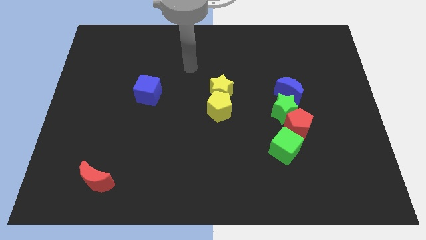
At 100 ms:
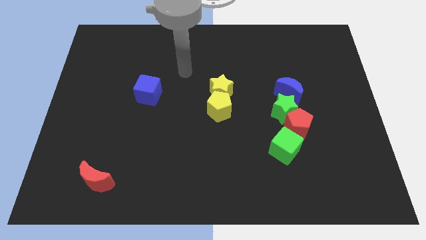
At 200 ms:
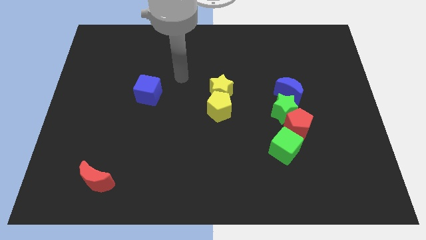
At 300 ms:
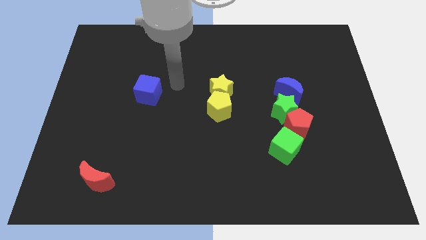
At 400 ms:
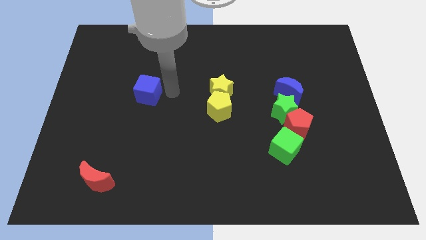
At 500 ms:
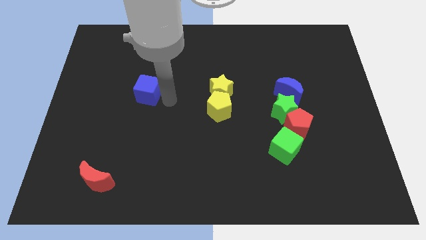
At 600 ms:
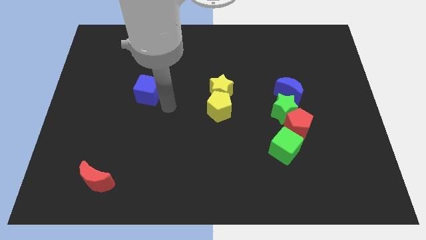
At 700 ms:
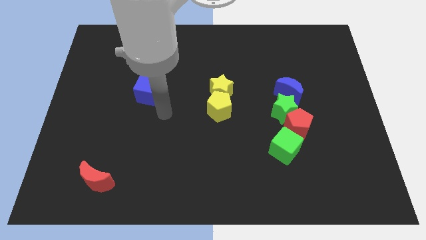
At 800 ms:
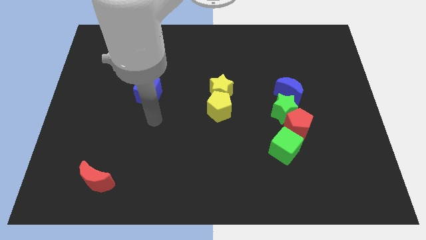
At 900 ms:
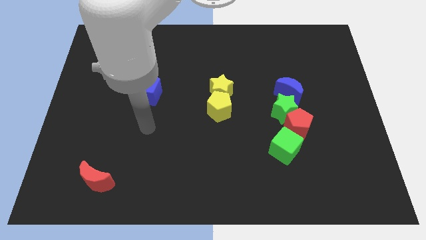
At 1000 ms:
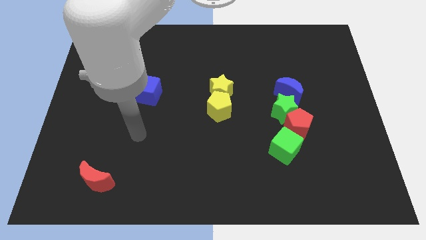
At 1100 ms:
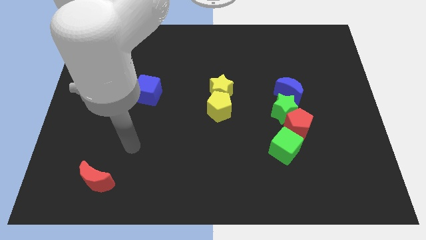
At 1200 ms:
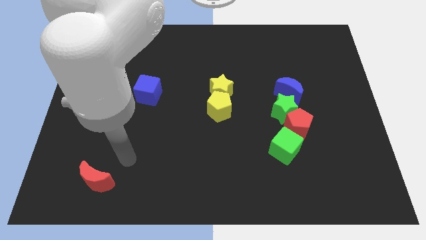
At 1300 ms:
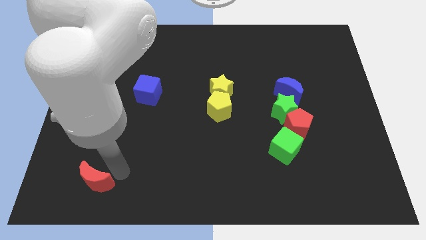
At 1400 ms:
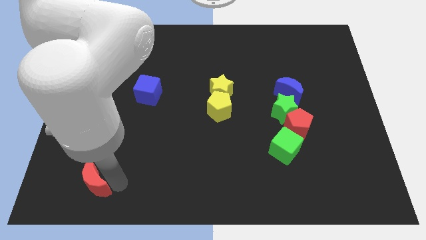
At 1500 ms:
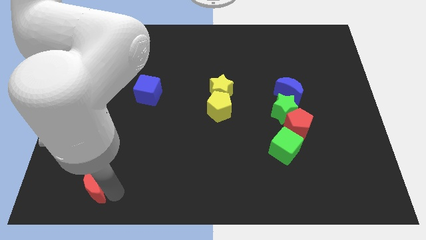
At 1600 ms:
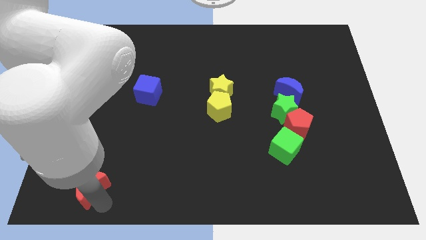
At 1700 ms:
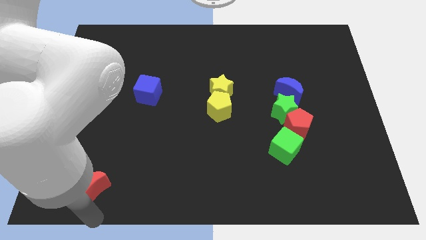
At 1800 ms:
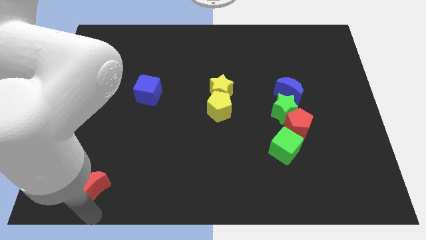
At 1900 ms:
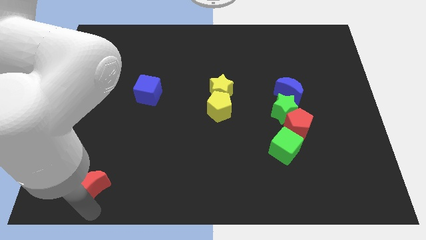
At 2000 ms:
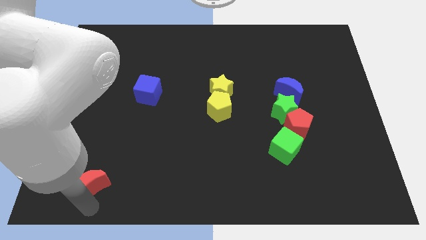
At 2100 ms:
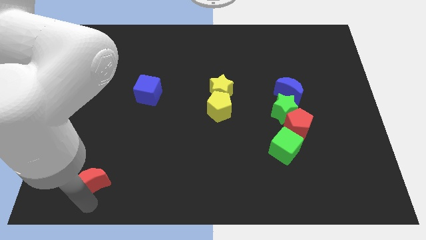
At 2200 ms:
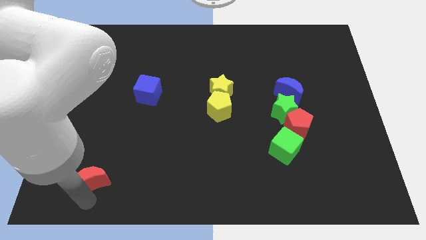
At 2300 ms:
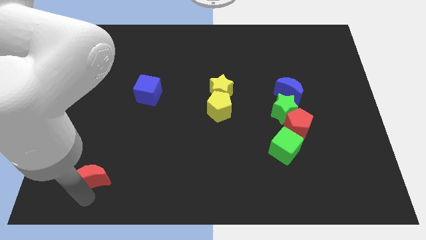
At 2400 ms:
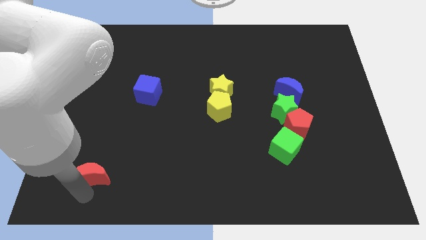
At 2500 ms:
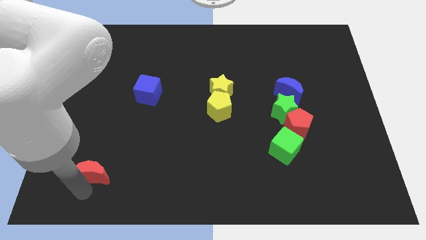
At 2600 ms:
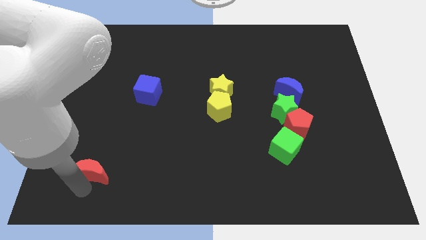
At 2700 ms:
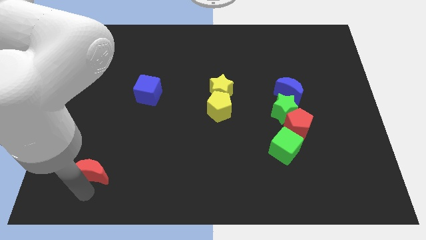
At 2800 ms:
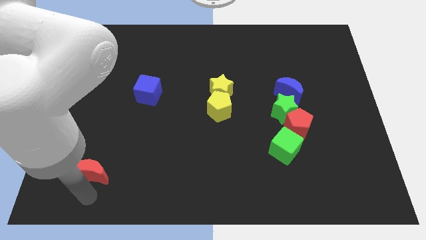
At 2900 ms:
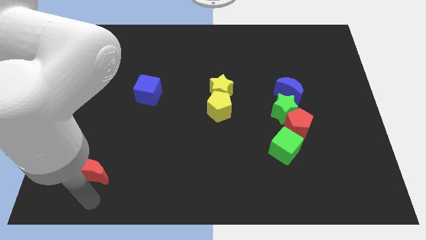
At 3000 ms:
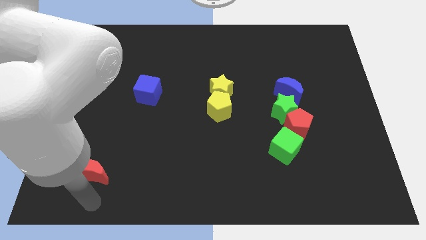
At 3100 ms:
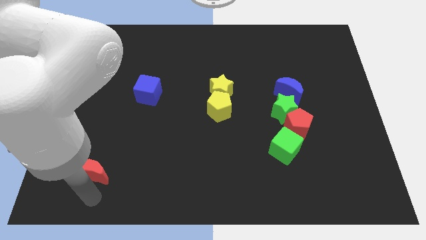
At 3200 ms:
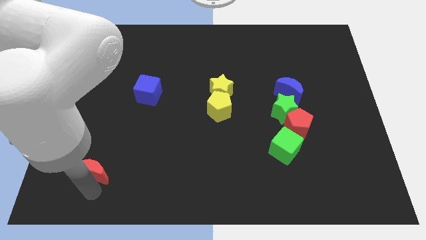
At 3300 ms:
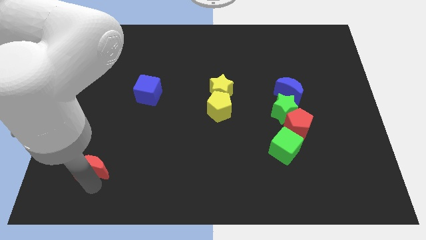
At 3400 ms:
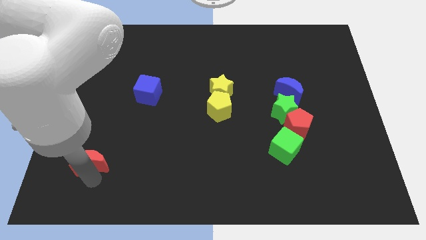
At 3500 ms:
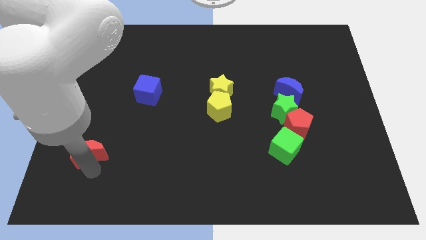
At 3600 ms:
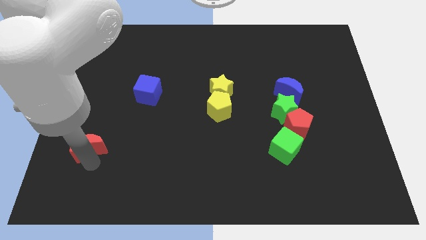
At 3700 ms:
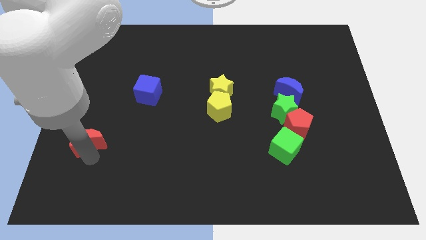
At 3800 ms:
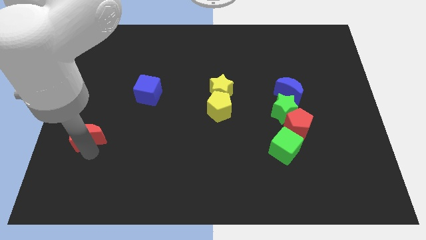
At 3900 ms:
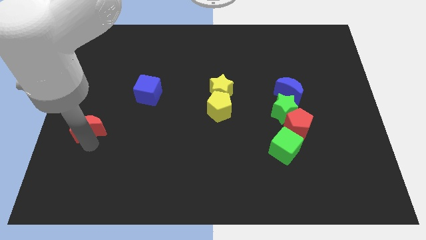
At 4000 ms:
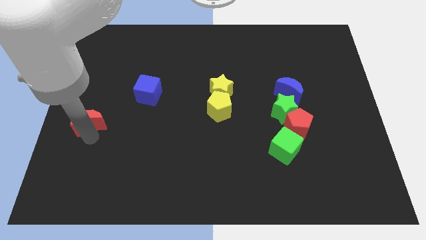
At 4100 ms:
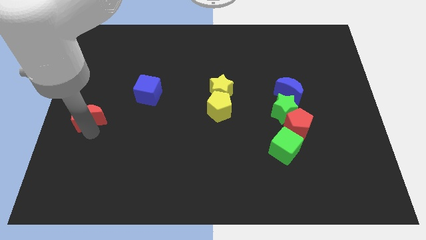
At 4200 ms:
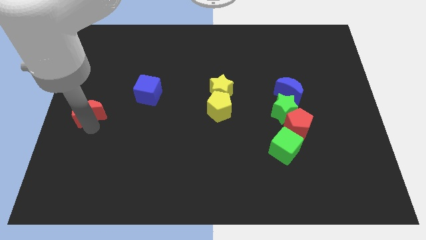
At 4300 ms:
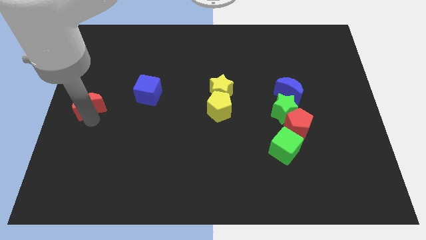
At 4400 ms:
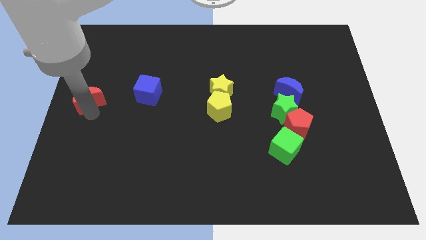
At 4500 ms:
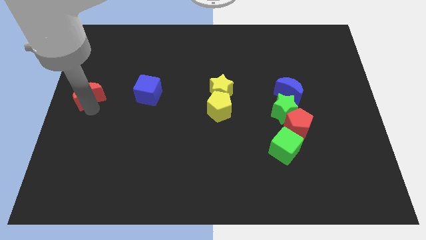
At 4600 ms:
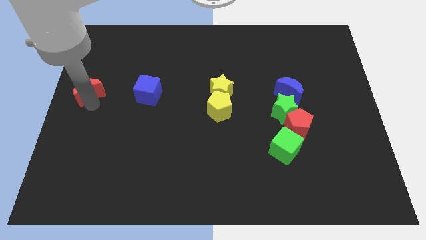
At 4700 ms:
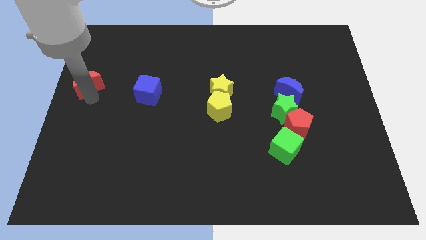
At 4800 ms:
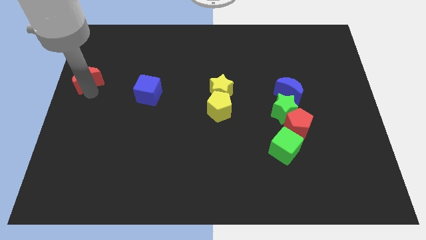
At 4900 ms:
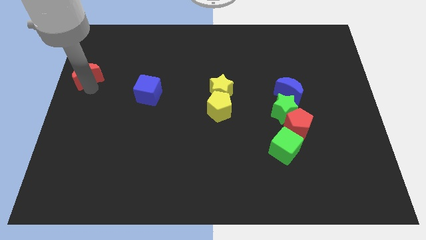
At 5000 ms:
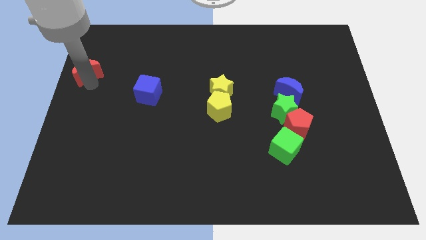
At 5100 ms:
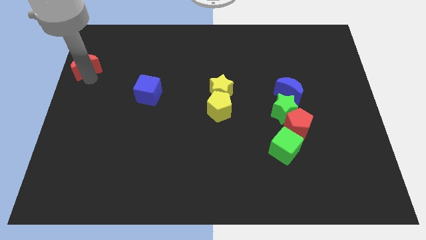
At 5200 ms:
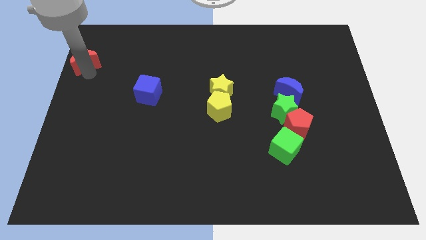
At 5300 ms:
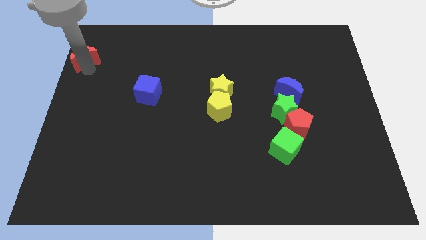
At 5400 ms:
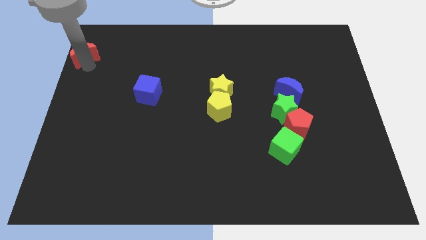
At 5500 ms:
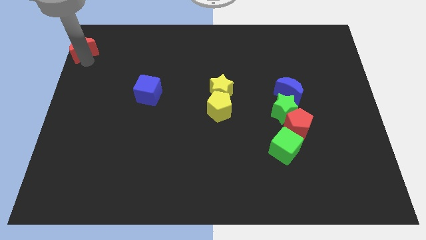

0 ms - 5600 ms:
push the red moon to the top left corner

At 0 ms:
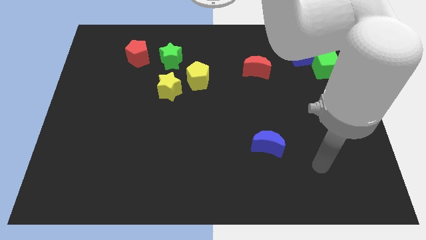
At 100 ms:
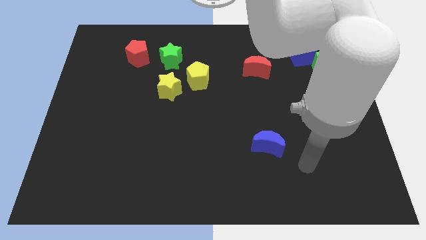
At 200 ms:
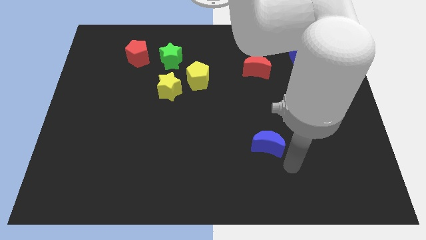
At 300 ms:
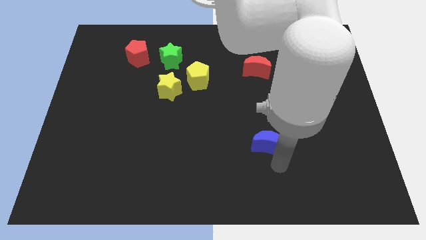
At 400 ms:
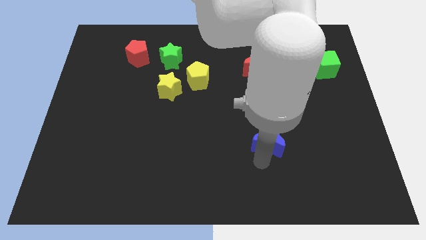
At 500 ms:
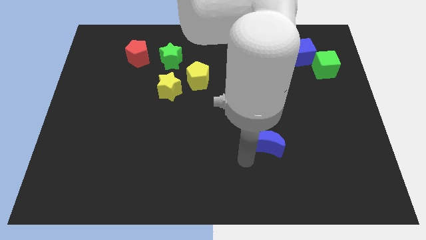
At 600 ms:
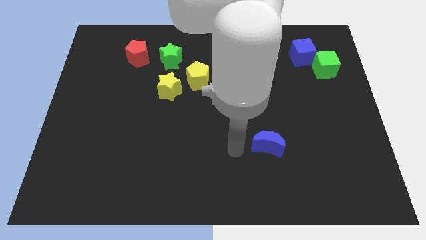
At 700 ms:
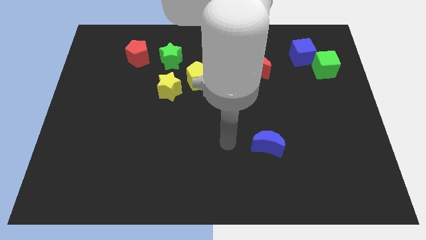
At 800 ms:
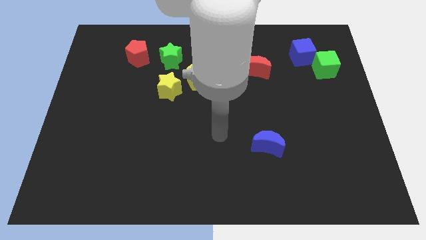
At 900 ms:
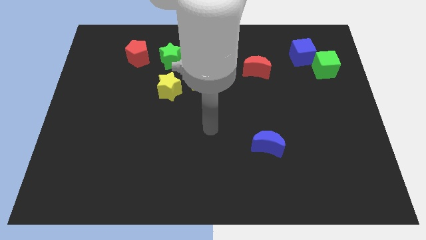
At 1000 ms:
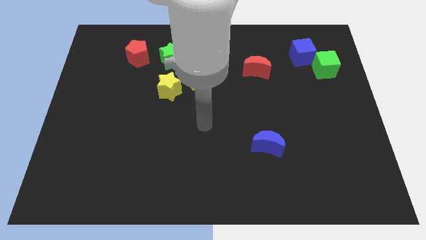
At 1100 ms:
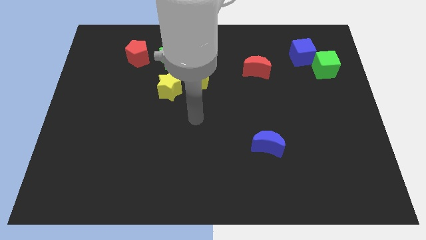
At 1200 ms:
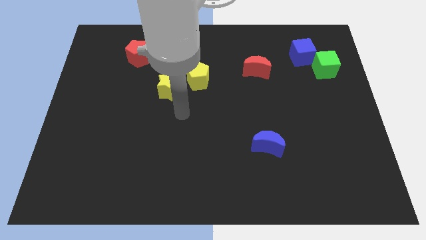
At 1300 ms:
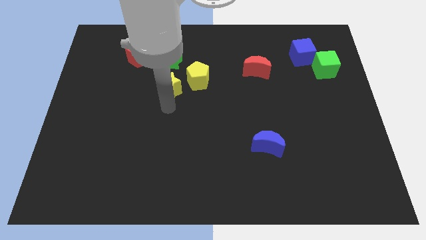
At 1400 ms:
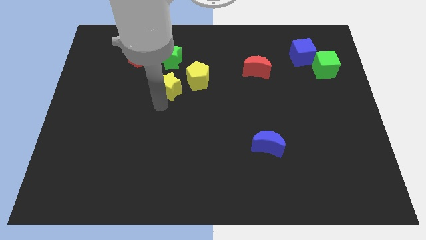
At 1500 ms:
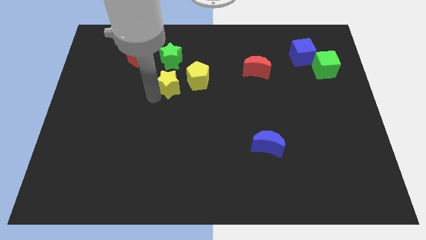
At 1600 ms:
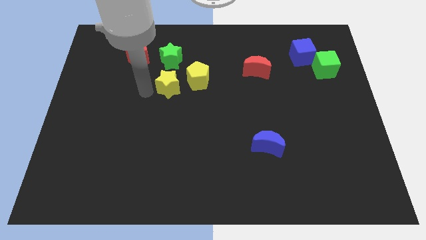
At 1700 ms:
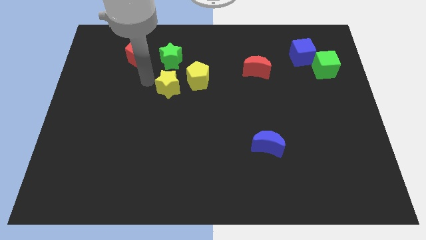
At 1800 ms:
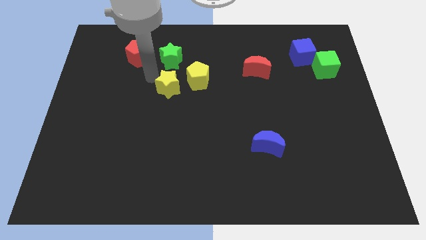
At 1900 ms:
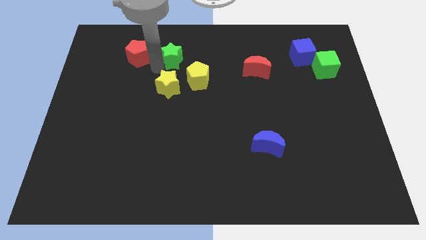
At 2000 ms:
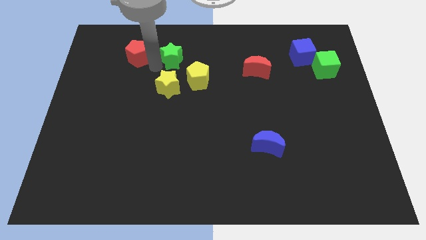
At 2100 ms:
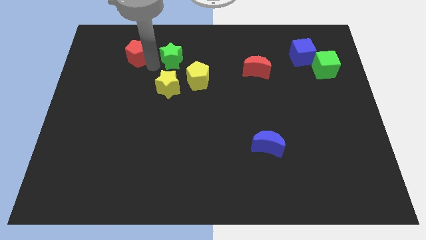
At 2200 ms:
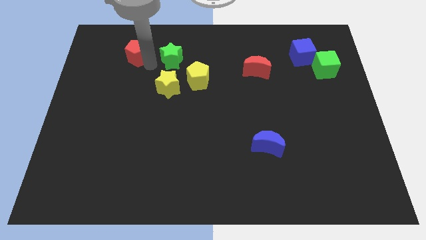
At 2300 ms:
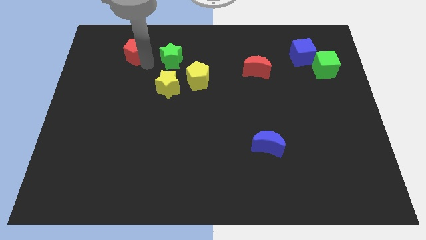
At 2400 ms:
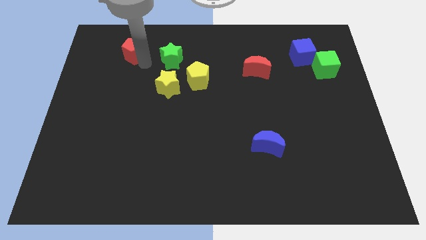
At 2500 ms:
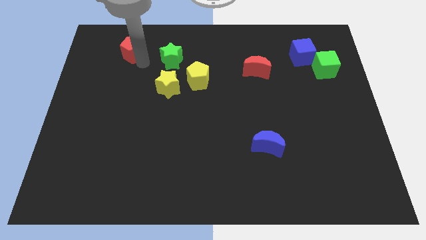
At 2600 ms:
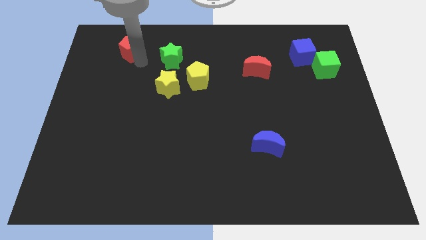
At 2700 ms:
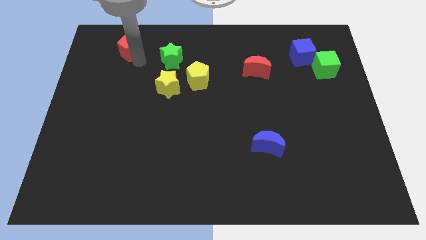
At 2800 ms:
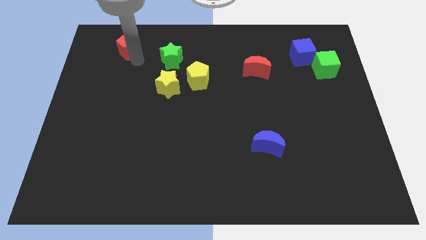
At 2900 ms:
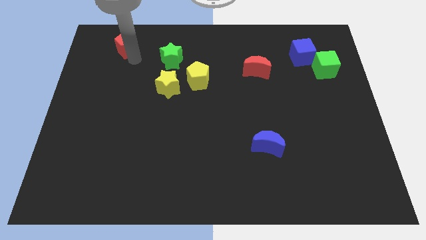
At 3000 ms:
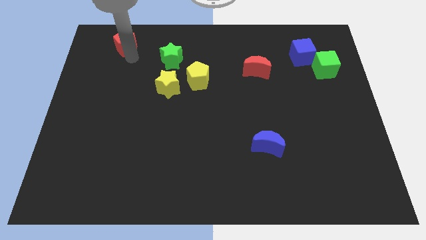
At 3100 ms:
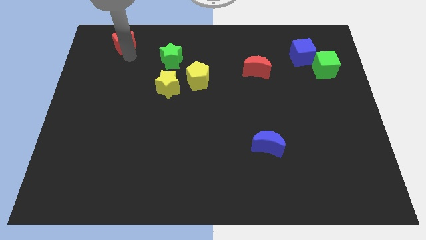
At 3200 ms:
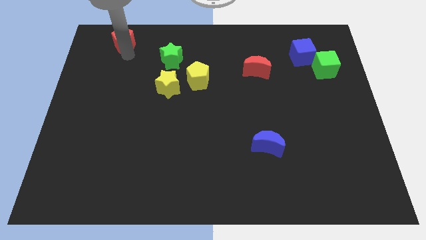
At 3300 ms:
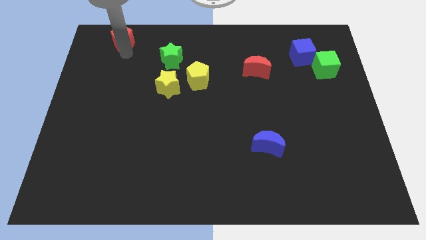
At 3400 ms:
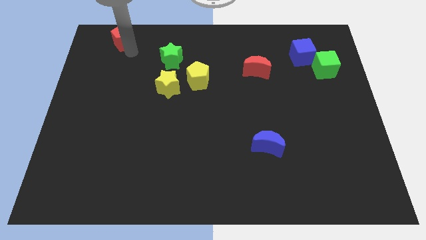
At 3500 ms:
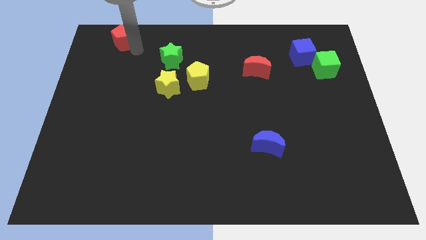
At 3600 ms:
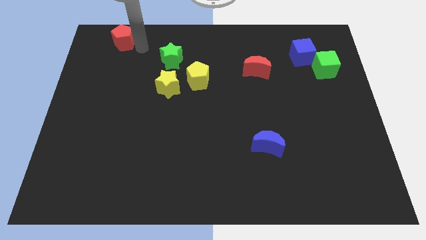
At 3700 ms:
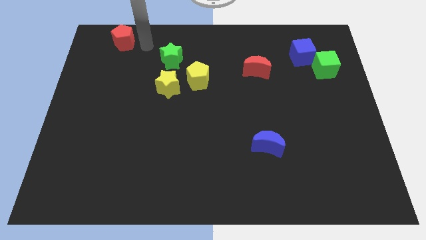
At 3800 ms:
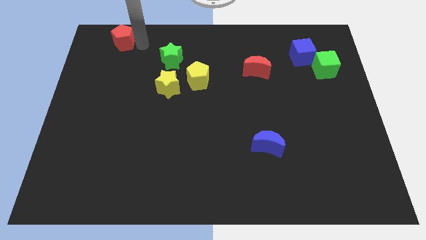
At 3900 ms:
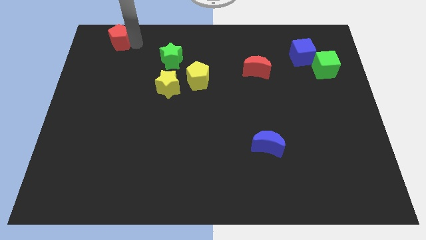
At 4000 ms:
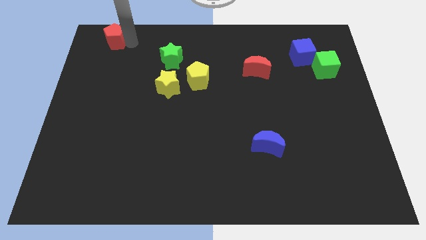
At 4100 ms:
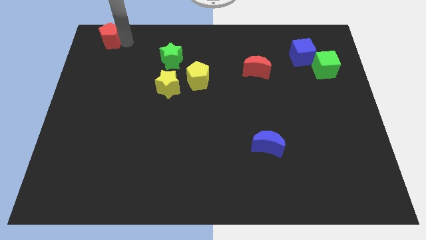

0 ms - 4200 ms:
move the red pentagon to the upper left corner
